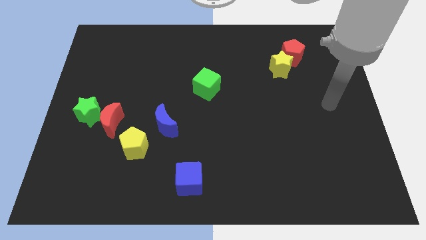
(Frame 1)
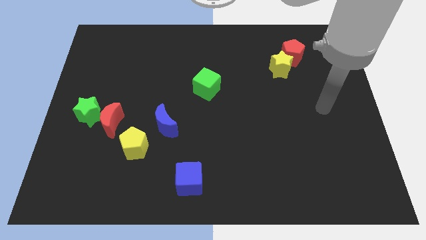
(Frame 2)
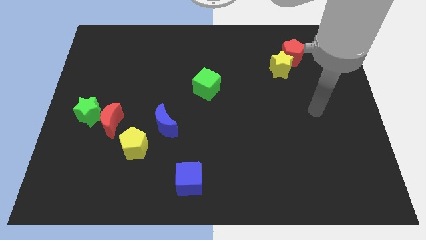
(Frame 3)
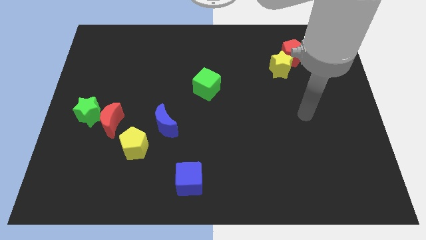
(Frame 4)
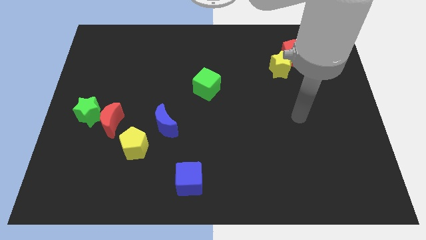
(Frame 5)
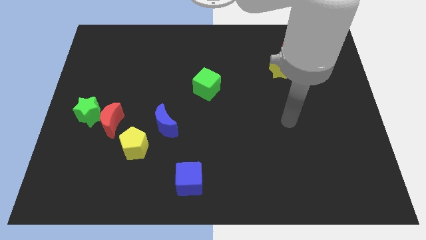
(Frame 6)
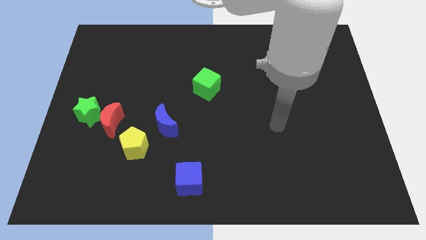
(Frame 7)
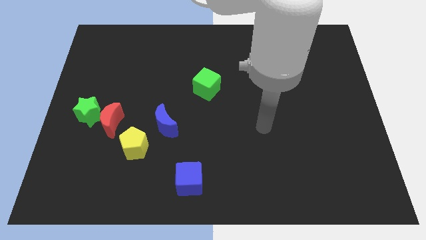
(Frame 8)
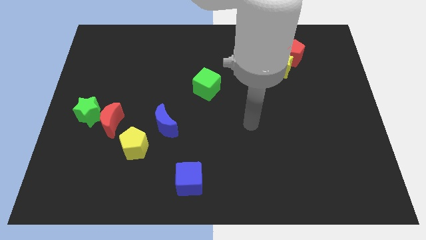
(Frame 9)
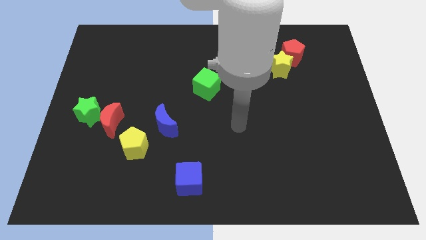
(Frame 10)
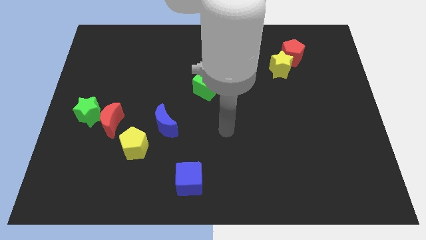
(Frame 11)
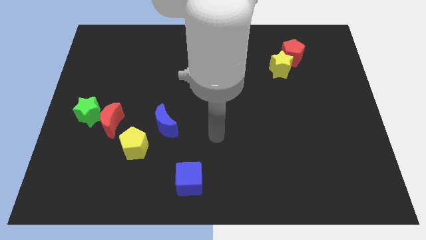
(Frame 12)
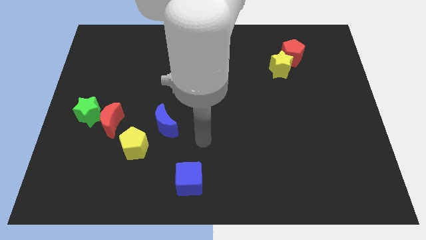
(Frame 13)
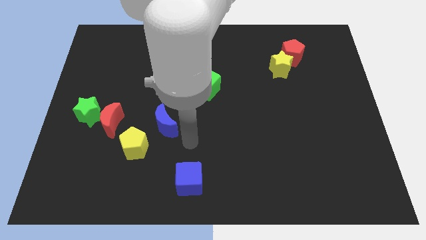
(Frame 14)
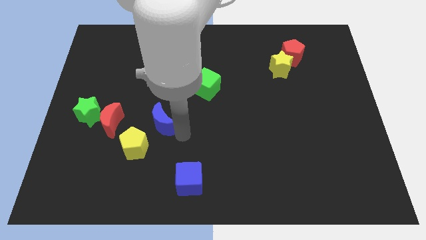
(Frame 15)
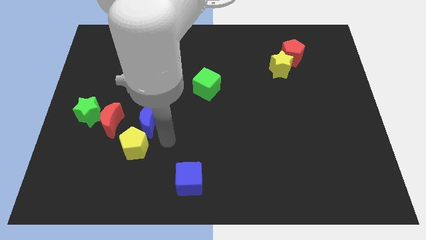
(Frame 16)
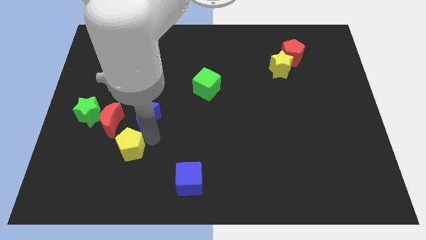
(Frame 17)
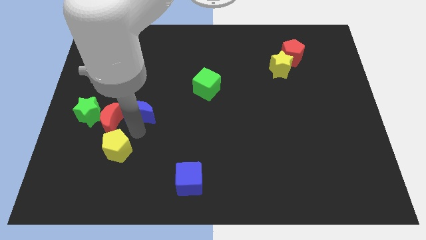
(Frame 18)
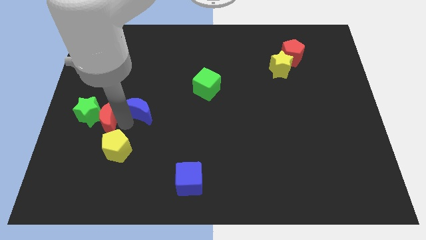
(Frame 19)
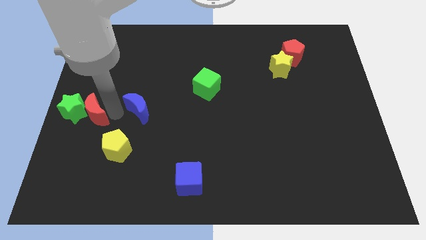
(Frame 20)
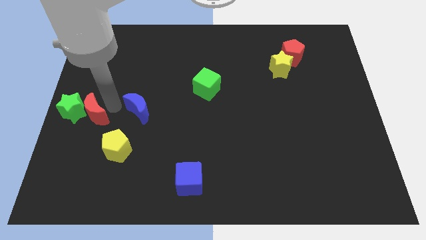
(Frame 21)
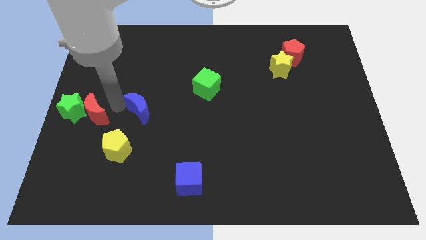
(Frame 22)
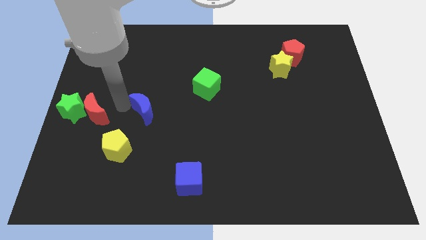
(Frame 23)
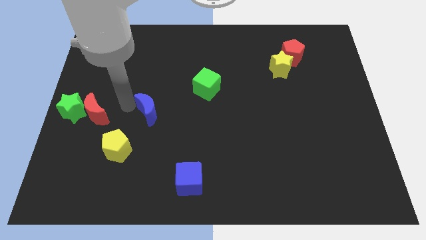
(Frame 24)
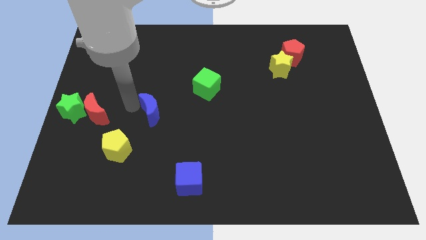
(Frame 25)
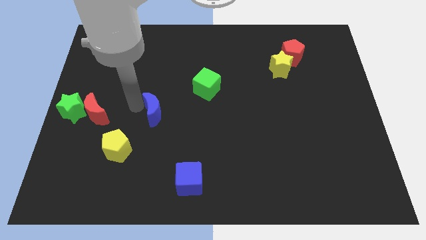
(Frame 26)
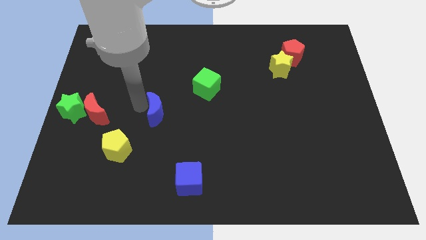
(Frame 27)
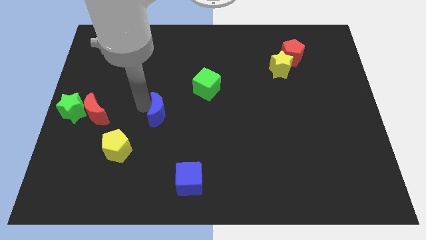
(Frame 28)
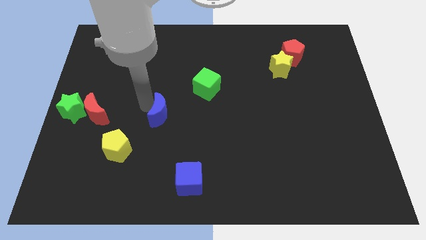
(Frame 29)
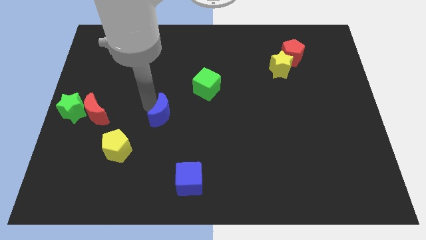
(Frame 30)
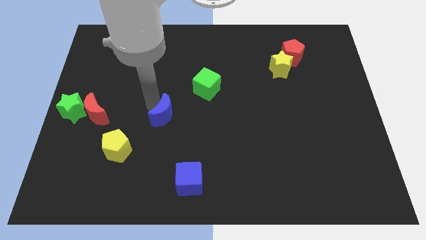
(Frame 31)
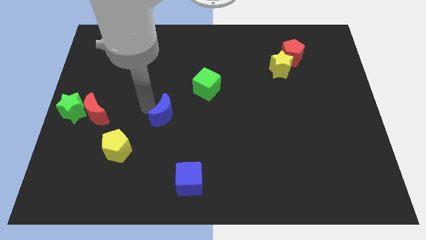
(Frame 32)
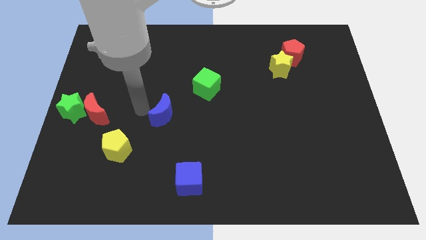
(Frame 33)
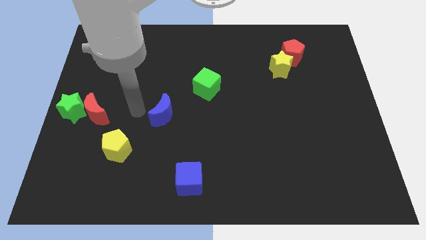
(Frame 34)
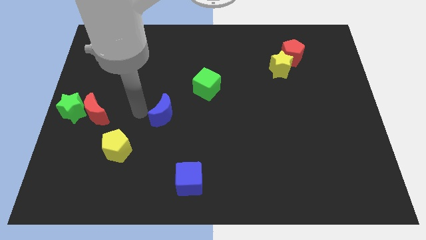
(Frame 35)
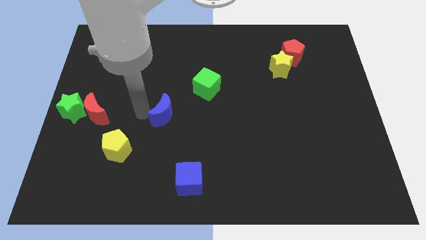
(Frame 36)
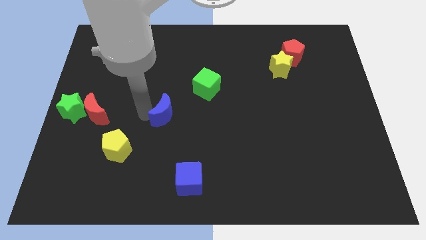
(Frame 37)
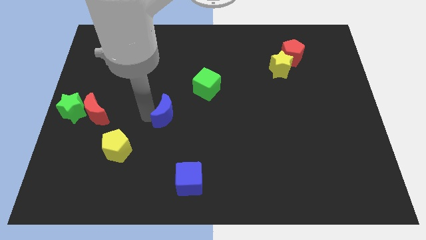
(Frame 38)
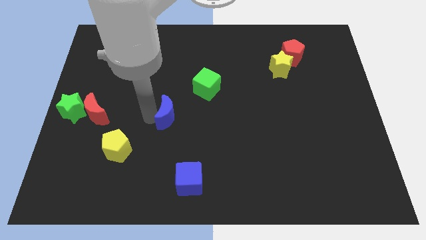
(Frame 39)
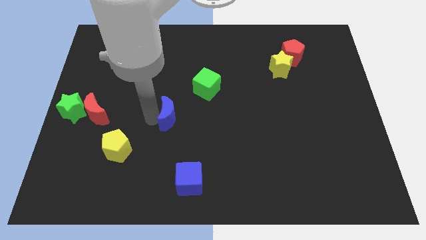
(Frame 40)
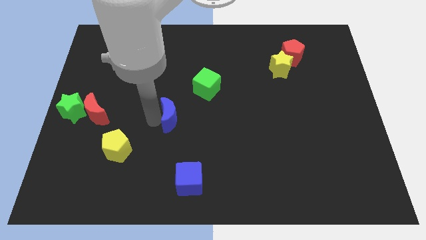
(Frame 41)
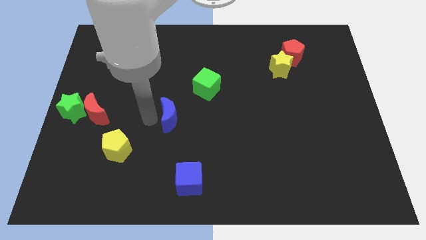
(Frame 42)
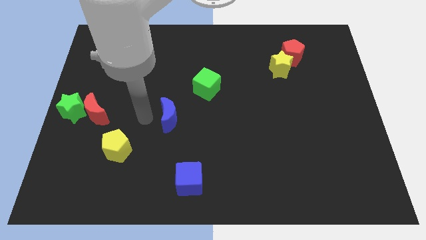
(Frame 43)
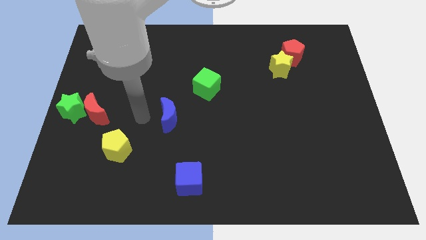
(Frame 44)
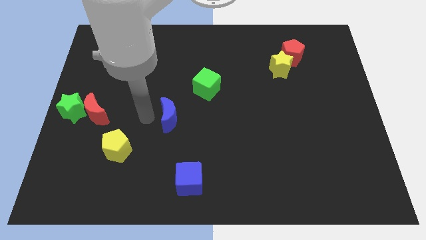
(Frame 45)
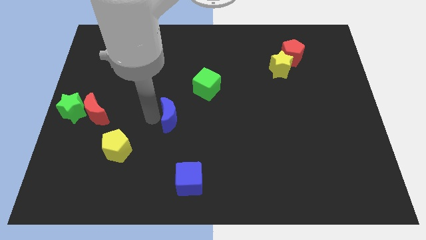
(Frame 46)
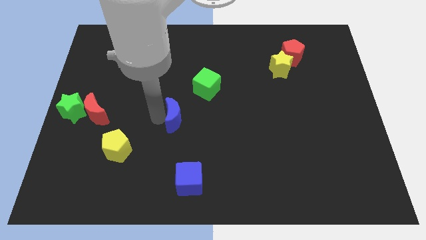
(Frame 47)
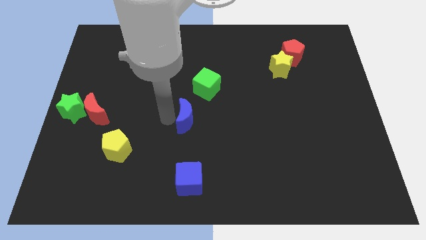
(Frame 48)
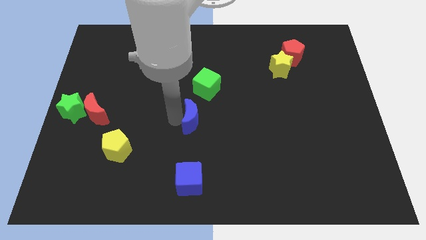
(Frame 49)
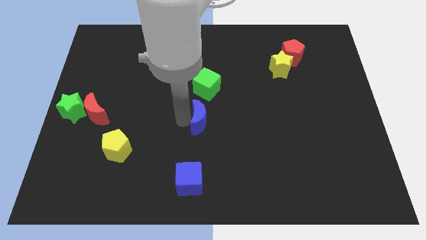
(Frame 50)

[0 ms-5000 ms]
slightly move the blue moon right

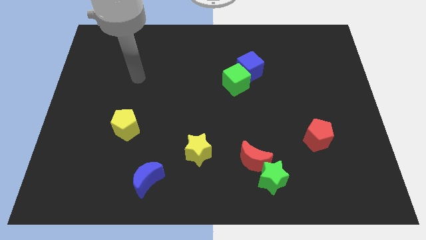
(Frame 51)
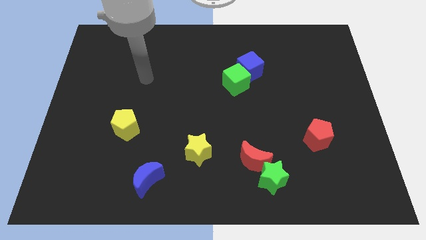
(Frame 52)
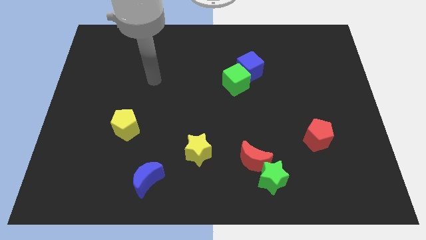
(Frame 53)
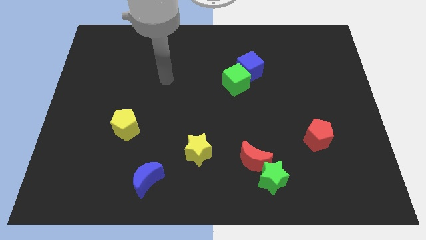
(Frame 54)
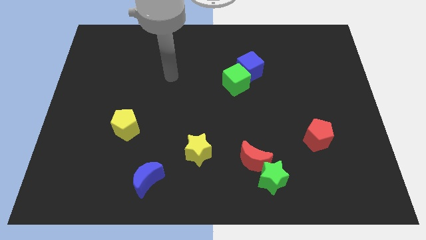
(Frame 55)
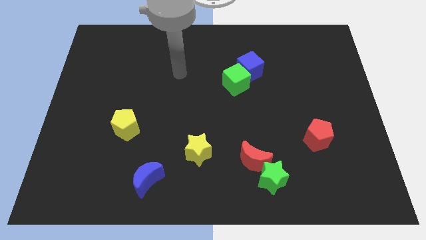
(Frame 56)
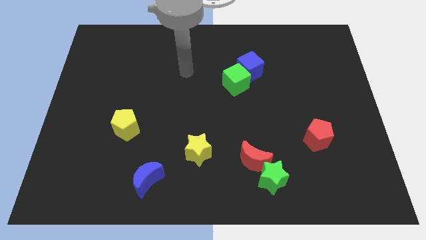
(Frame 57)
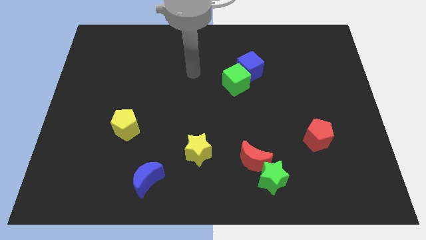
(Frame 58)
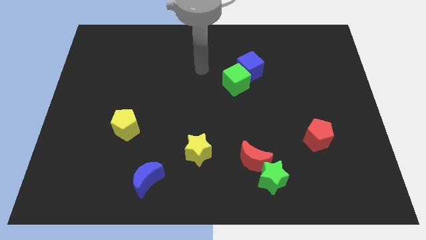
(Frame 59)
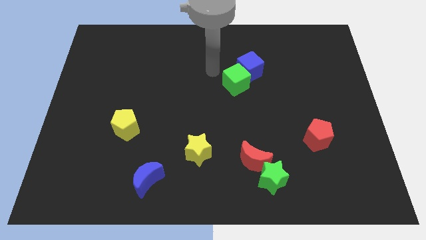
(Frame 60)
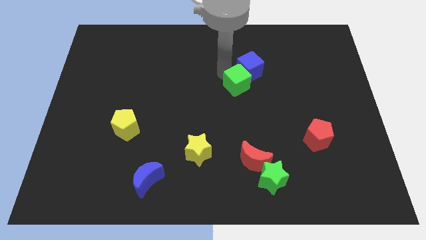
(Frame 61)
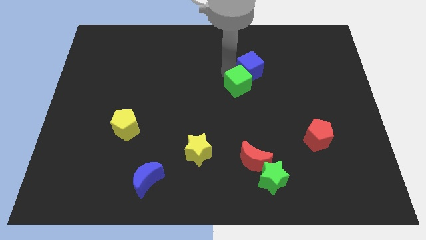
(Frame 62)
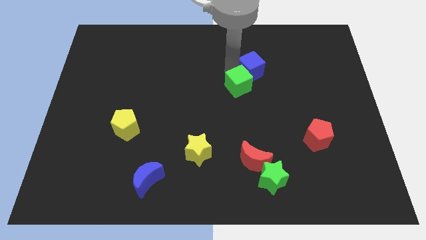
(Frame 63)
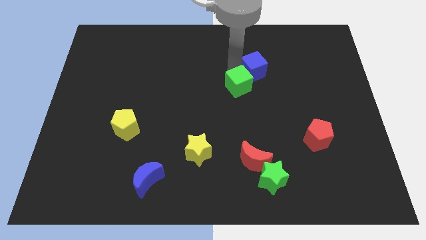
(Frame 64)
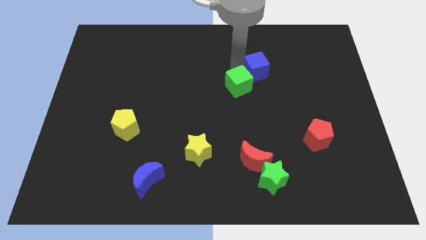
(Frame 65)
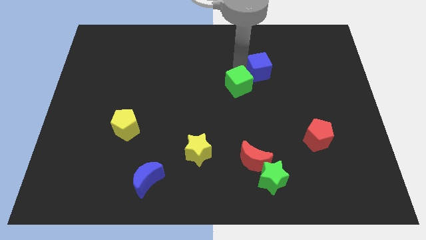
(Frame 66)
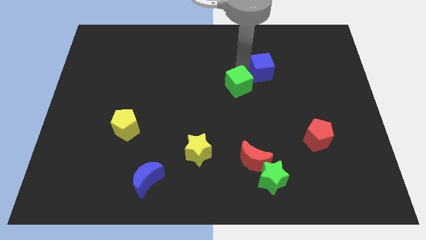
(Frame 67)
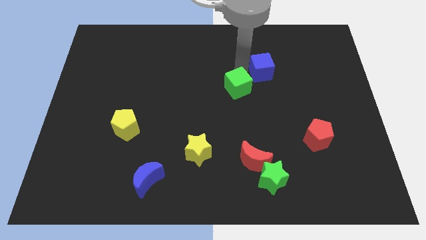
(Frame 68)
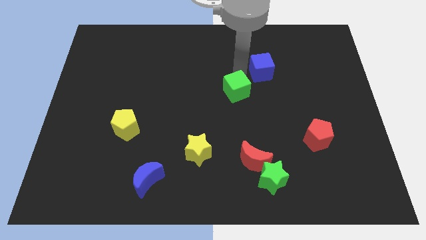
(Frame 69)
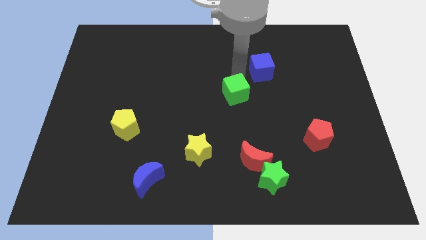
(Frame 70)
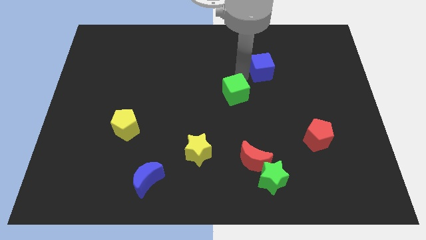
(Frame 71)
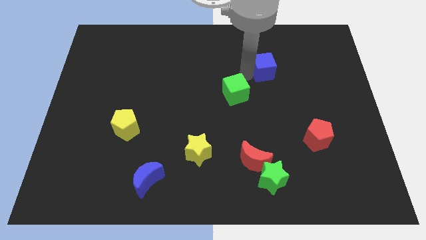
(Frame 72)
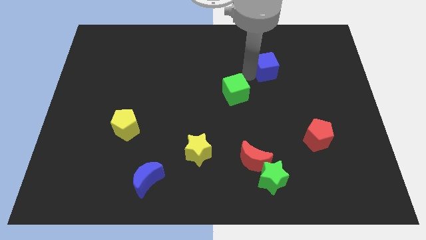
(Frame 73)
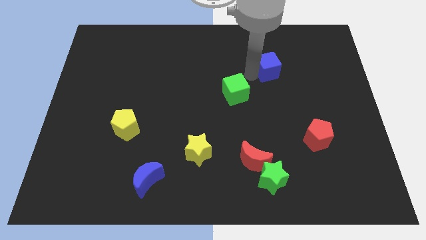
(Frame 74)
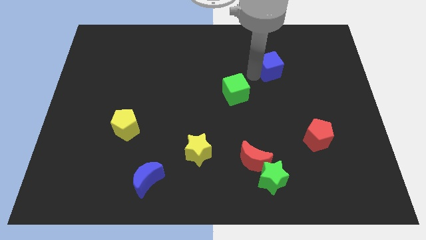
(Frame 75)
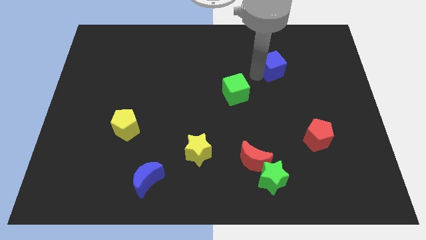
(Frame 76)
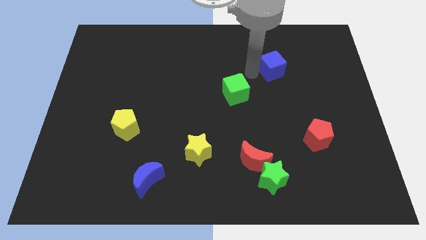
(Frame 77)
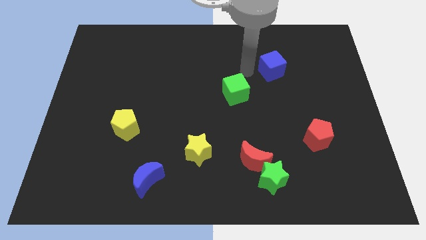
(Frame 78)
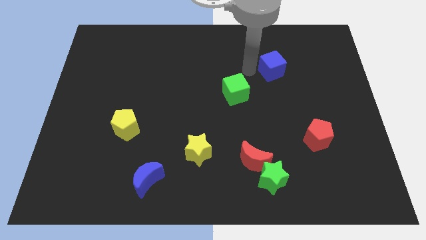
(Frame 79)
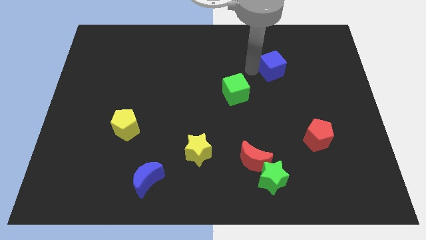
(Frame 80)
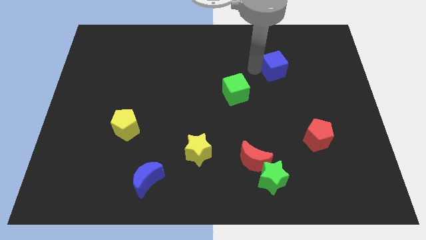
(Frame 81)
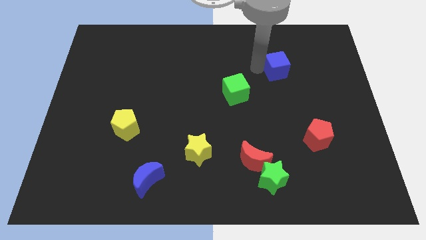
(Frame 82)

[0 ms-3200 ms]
slightly slide the blue cube right

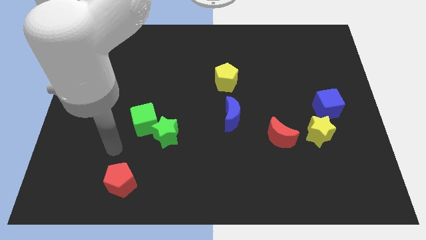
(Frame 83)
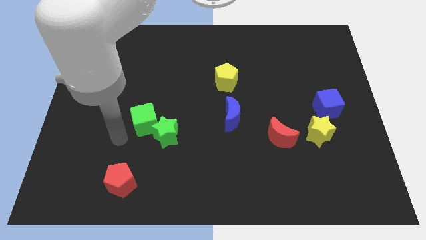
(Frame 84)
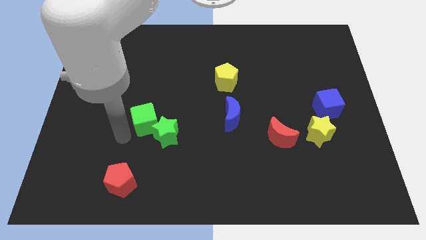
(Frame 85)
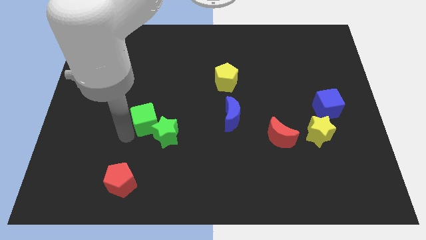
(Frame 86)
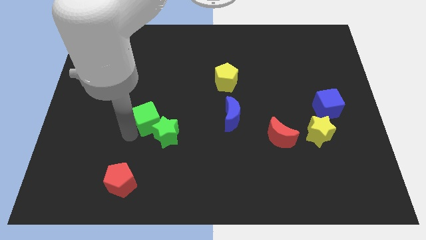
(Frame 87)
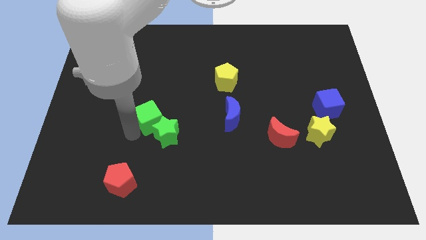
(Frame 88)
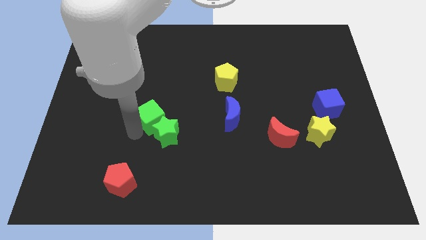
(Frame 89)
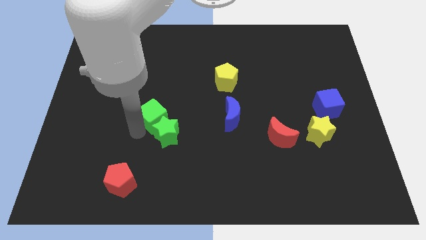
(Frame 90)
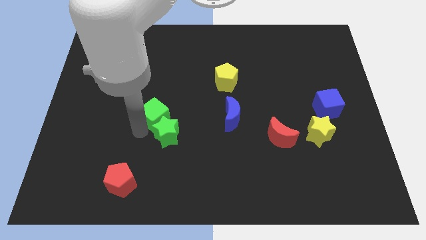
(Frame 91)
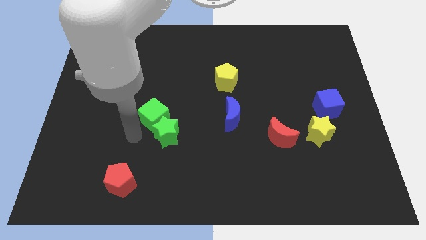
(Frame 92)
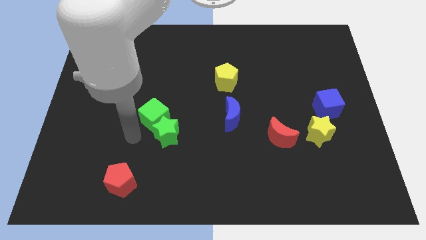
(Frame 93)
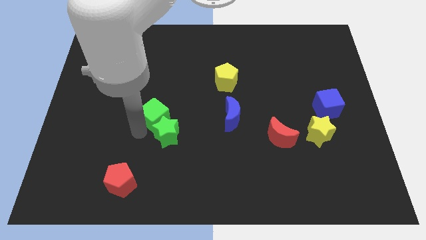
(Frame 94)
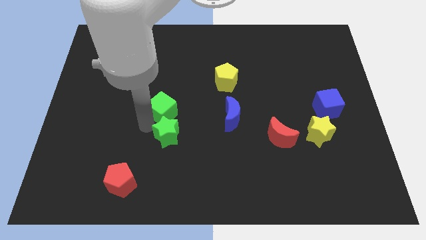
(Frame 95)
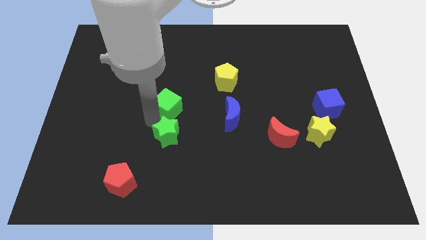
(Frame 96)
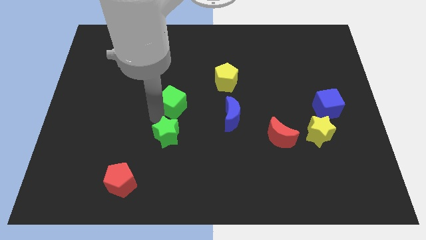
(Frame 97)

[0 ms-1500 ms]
move the green cube up and to the right diagonally a little bit
